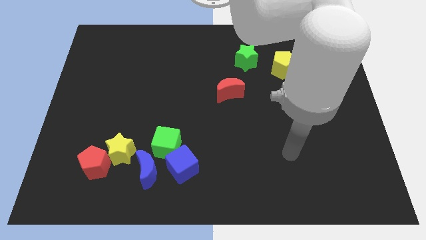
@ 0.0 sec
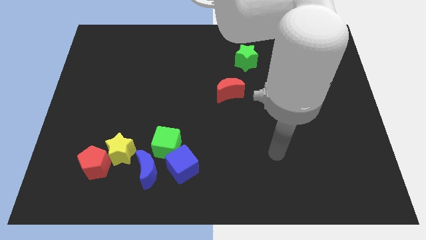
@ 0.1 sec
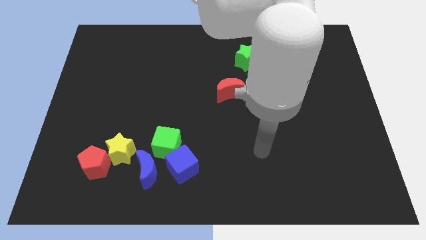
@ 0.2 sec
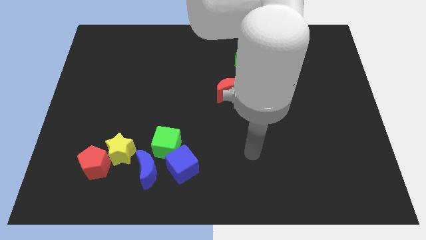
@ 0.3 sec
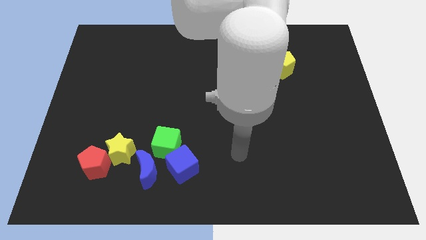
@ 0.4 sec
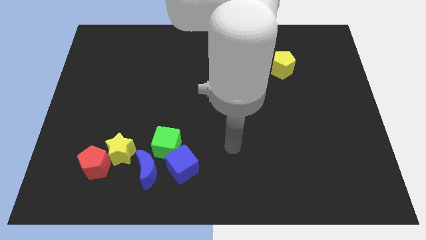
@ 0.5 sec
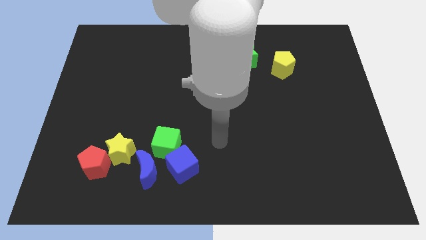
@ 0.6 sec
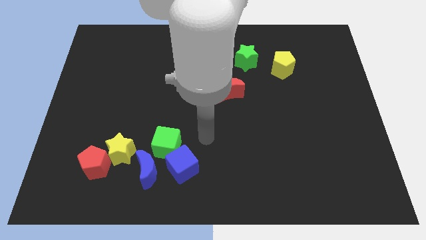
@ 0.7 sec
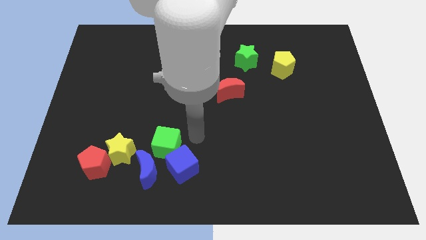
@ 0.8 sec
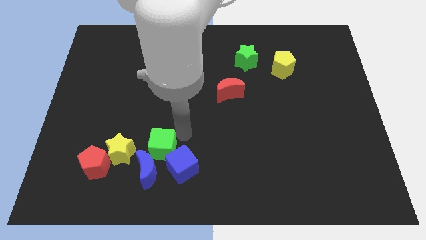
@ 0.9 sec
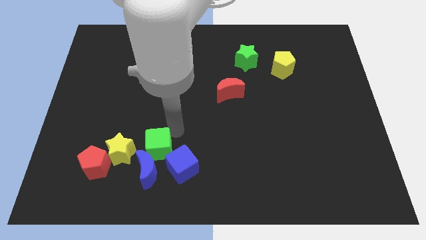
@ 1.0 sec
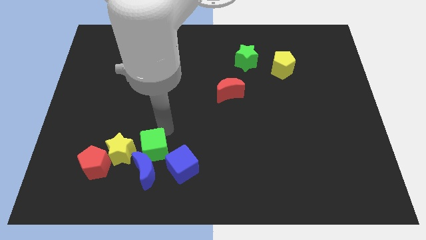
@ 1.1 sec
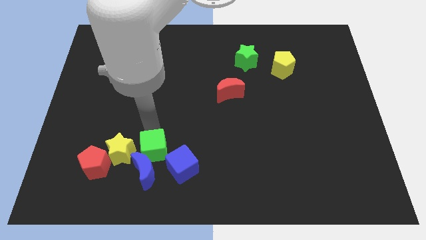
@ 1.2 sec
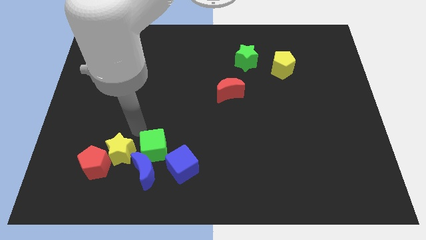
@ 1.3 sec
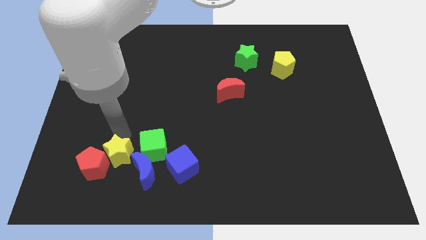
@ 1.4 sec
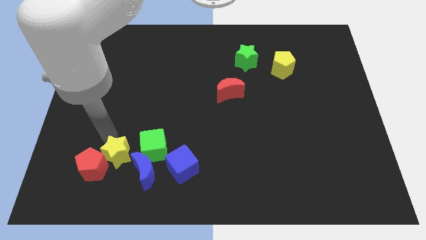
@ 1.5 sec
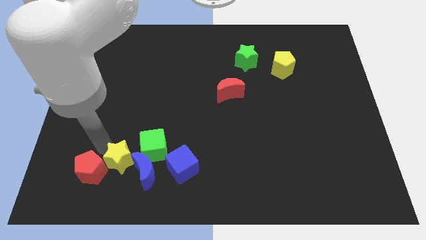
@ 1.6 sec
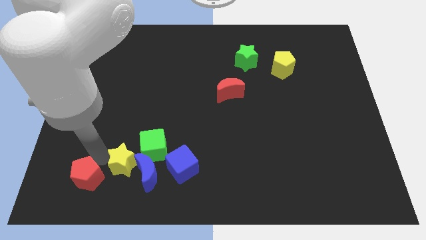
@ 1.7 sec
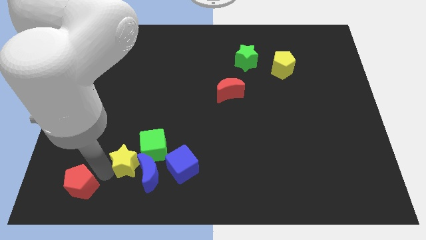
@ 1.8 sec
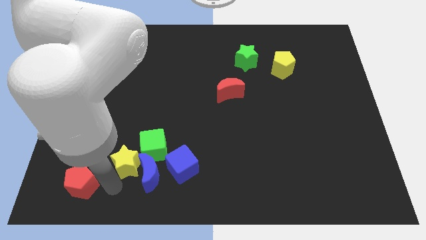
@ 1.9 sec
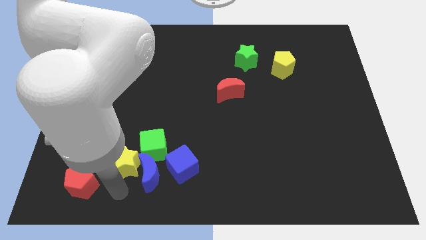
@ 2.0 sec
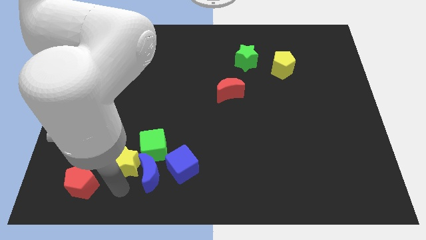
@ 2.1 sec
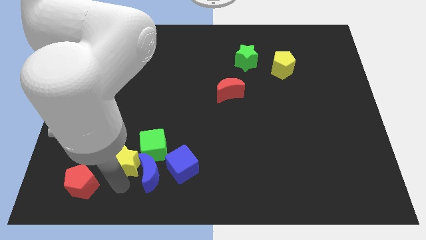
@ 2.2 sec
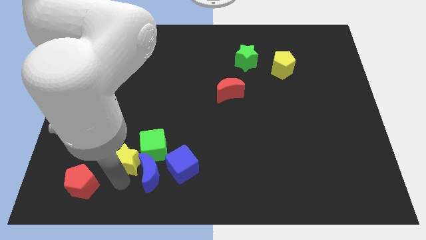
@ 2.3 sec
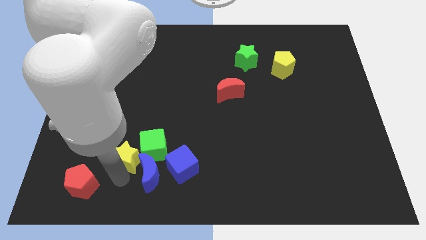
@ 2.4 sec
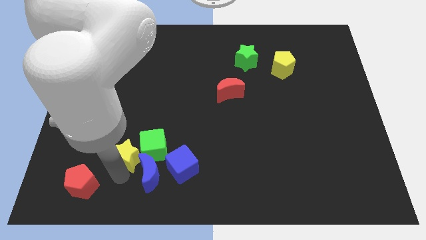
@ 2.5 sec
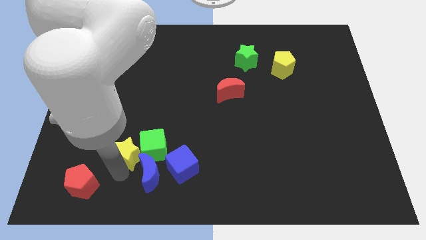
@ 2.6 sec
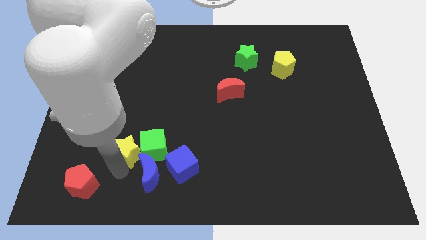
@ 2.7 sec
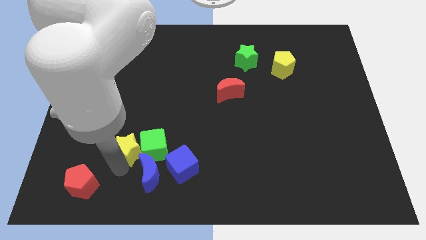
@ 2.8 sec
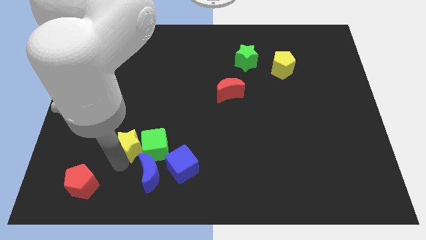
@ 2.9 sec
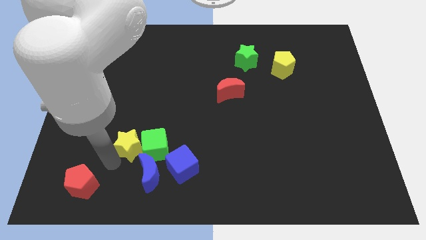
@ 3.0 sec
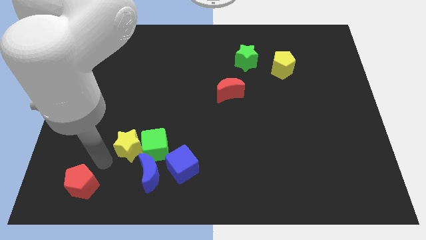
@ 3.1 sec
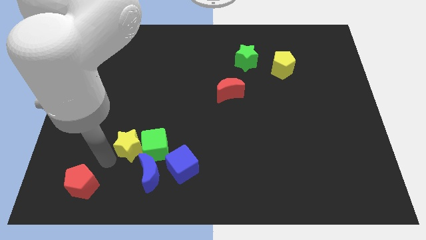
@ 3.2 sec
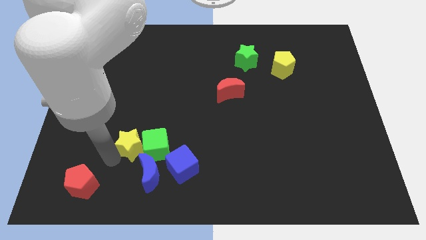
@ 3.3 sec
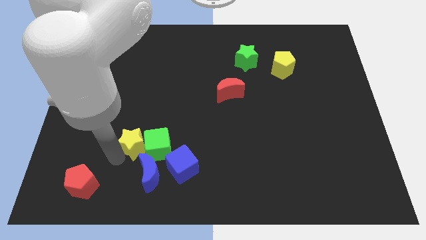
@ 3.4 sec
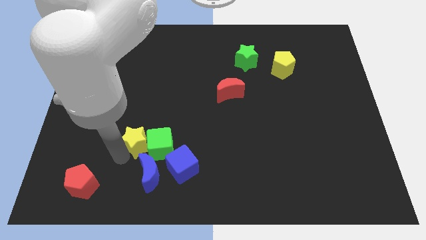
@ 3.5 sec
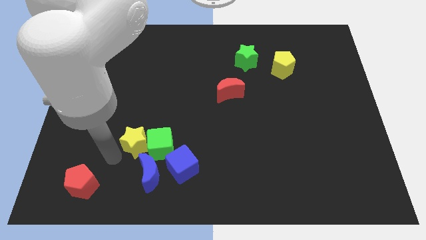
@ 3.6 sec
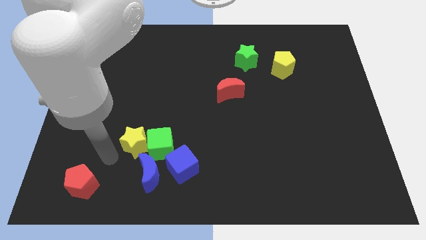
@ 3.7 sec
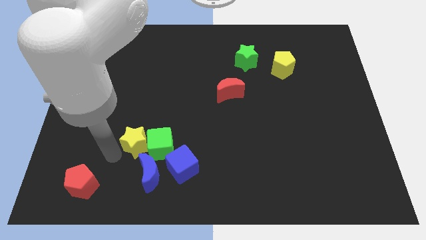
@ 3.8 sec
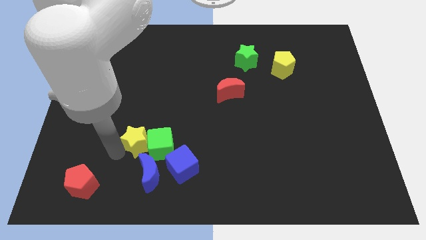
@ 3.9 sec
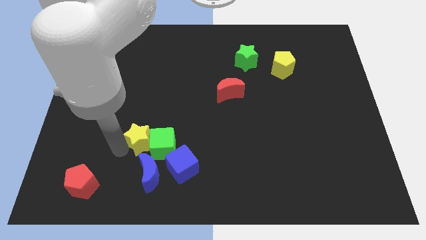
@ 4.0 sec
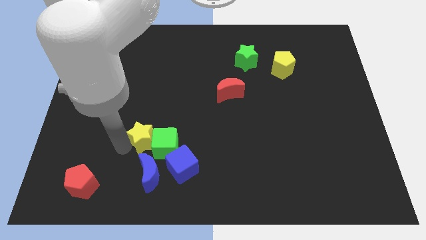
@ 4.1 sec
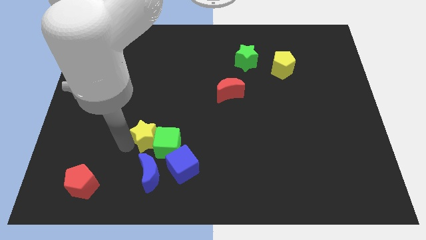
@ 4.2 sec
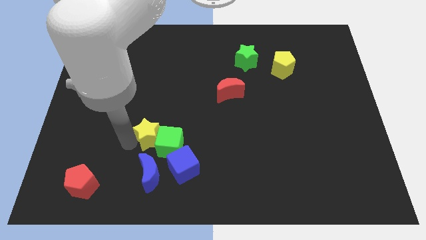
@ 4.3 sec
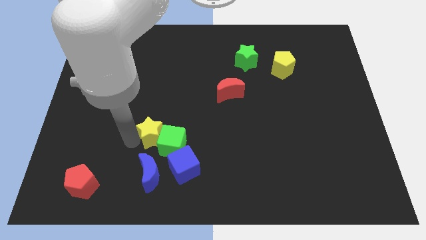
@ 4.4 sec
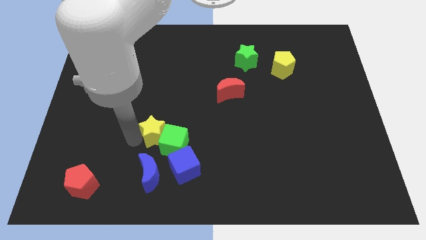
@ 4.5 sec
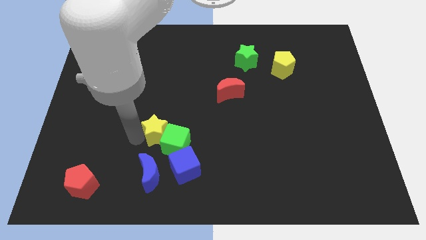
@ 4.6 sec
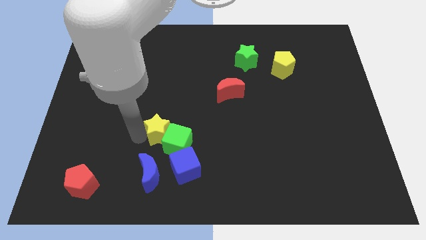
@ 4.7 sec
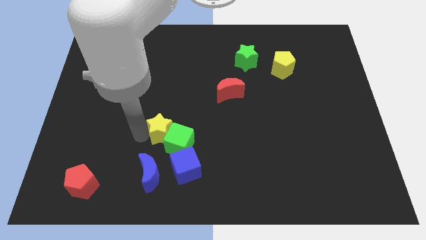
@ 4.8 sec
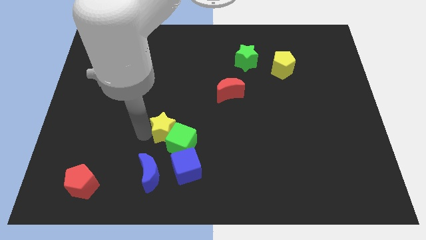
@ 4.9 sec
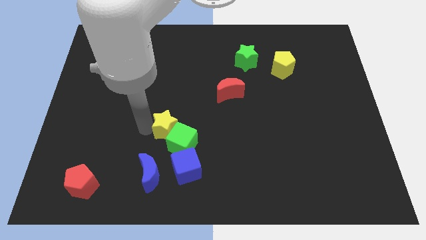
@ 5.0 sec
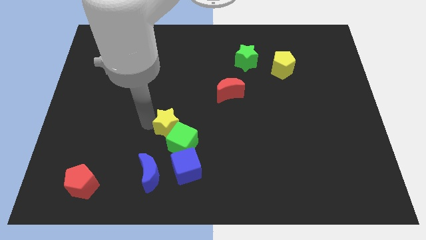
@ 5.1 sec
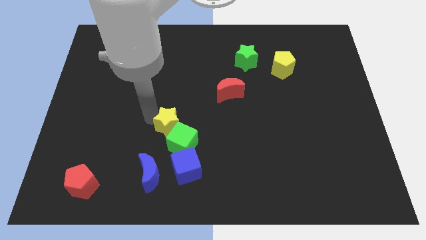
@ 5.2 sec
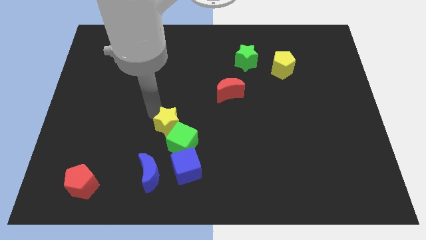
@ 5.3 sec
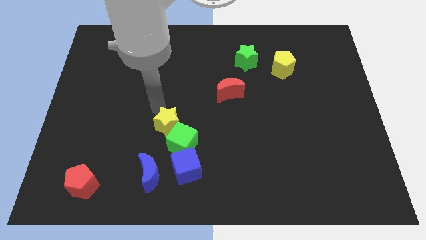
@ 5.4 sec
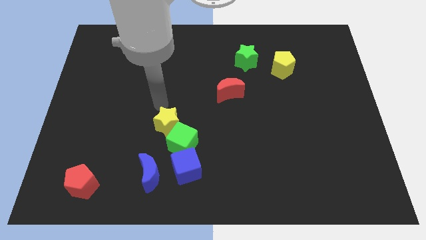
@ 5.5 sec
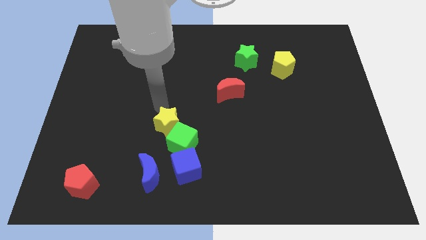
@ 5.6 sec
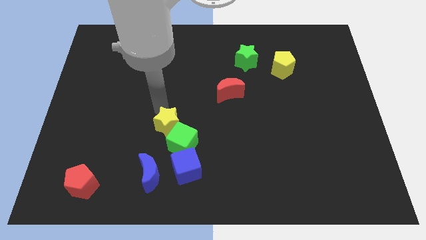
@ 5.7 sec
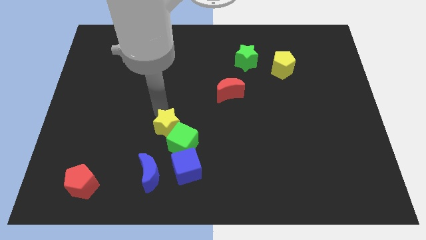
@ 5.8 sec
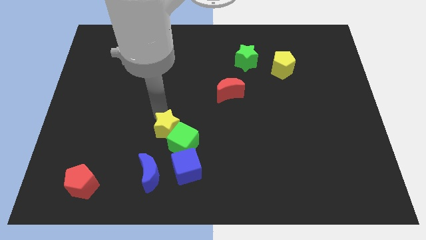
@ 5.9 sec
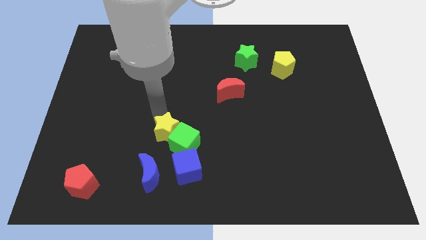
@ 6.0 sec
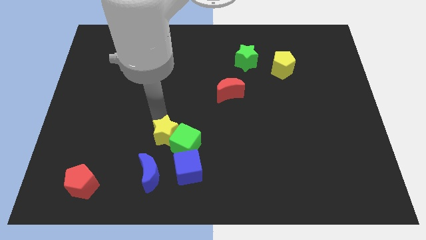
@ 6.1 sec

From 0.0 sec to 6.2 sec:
slide the yellow star diagonally up and to the right of the blue moon

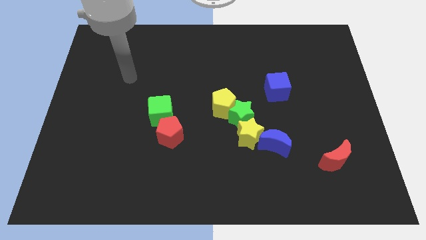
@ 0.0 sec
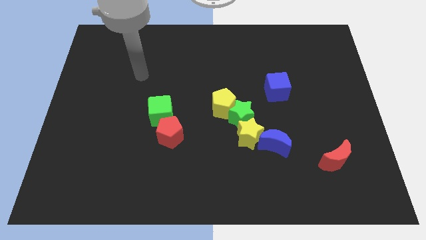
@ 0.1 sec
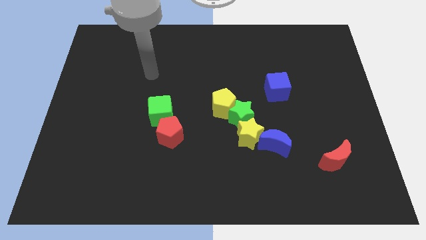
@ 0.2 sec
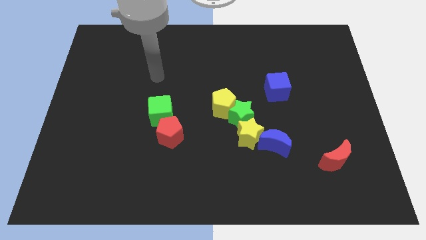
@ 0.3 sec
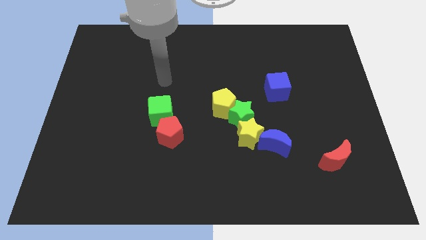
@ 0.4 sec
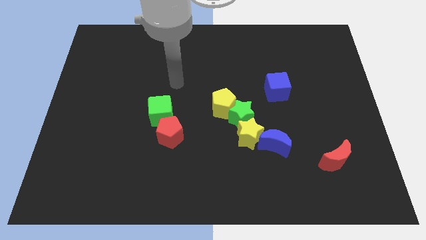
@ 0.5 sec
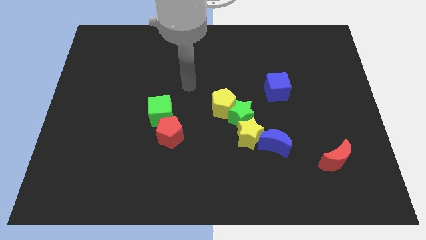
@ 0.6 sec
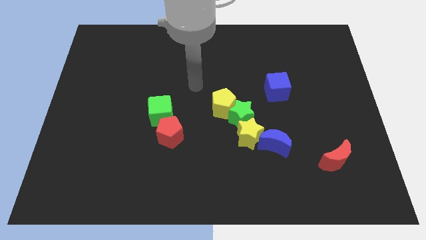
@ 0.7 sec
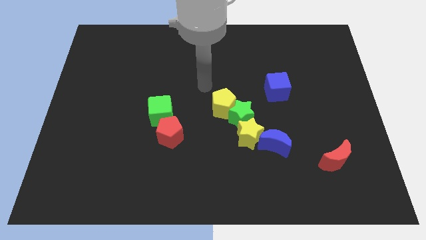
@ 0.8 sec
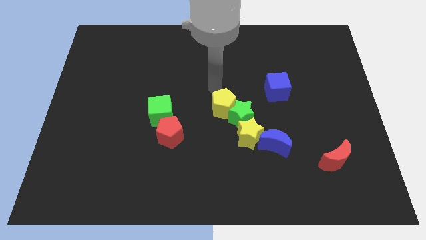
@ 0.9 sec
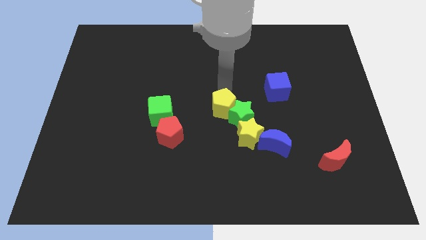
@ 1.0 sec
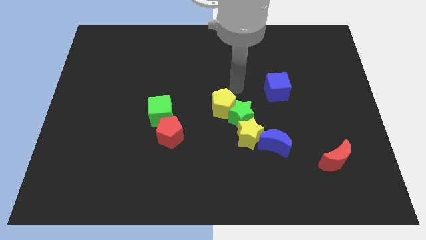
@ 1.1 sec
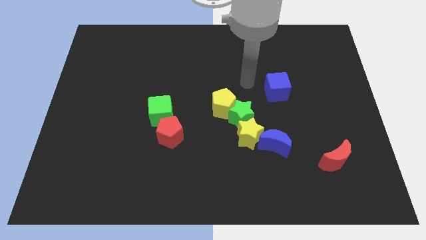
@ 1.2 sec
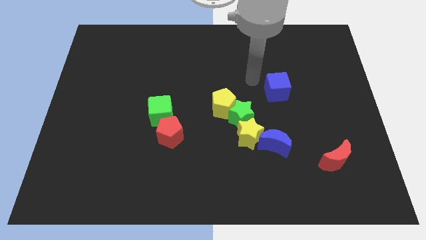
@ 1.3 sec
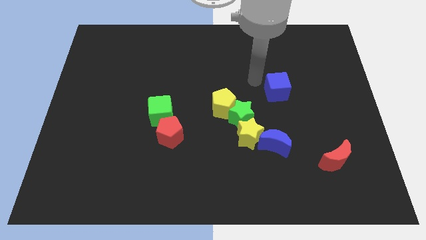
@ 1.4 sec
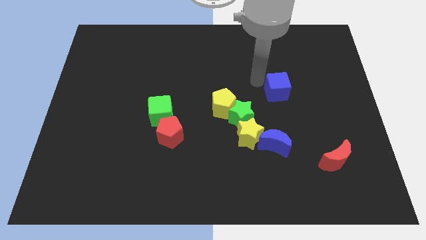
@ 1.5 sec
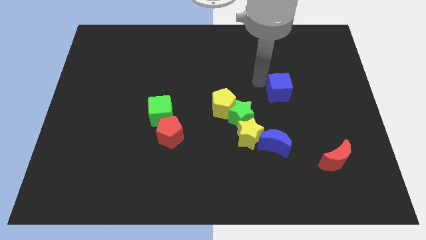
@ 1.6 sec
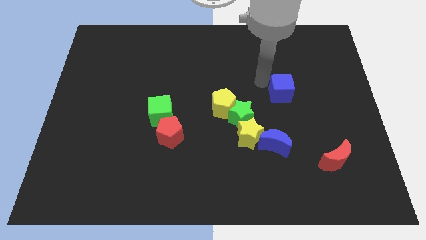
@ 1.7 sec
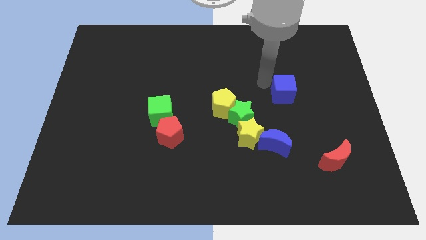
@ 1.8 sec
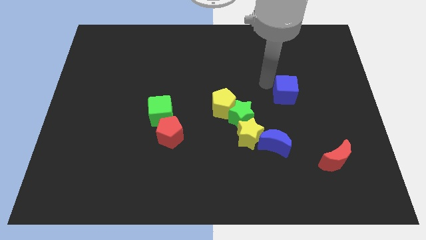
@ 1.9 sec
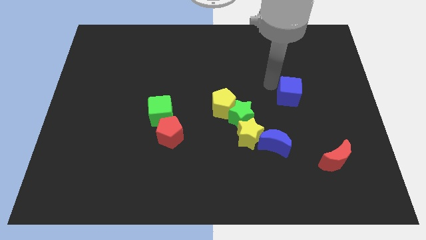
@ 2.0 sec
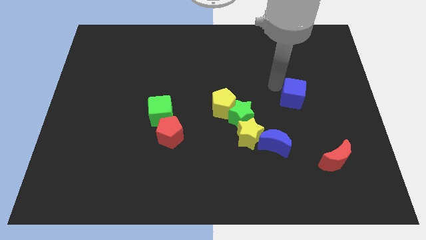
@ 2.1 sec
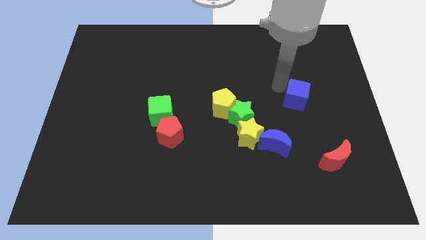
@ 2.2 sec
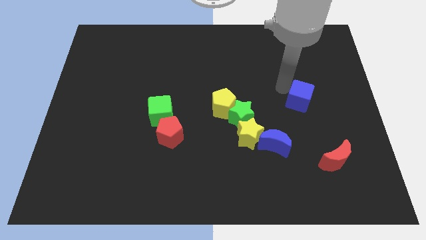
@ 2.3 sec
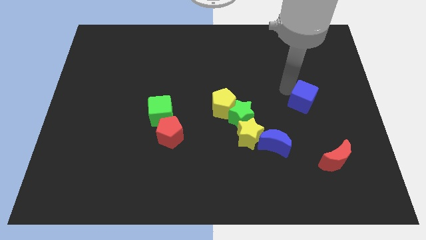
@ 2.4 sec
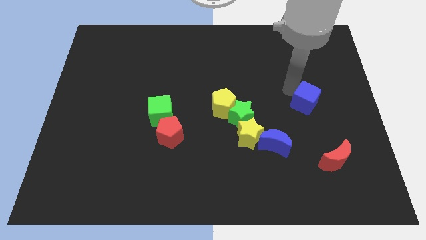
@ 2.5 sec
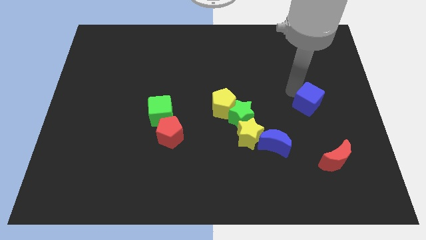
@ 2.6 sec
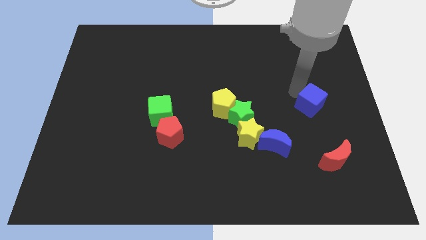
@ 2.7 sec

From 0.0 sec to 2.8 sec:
push the blue cube to the top side of the red moon
